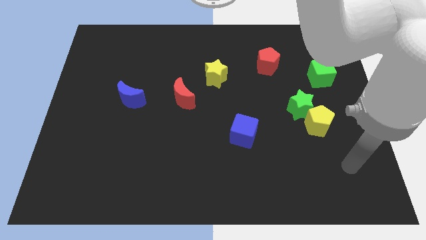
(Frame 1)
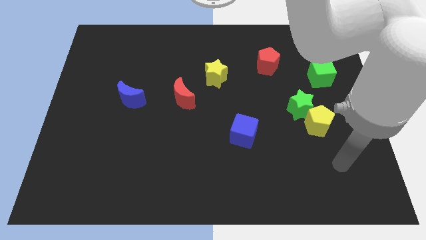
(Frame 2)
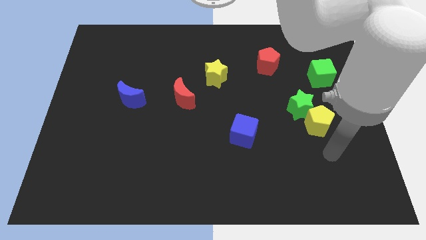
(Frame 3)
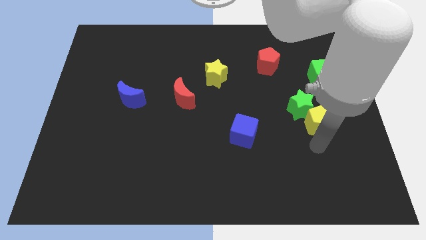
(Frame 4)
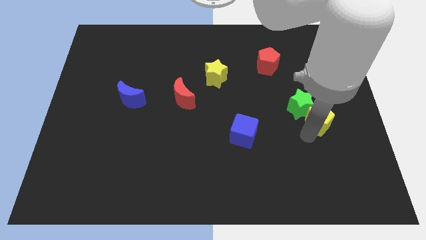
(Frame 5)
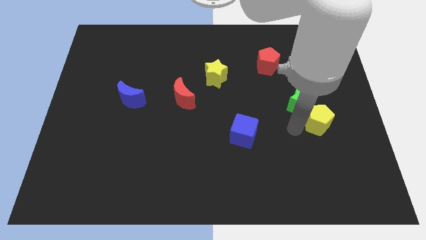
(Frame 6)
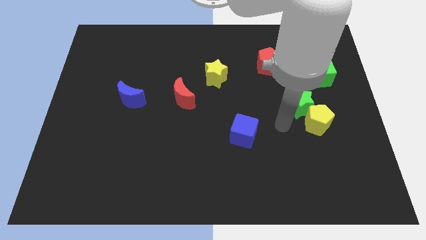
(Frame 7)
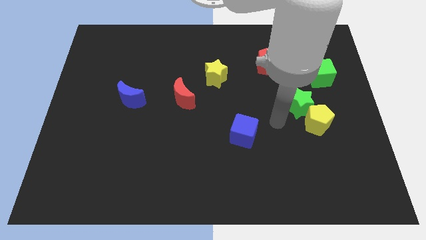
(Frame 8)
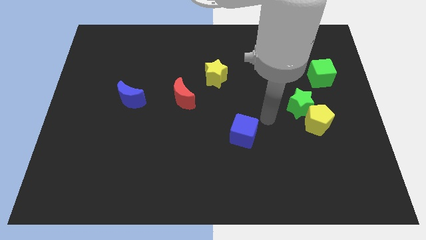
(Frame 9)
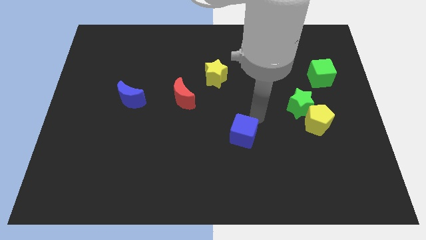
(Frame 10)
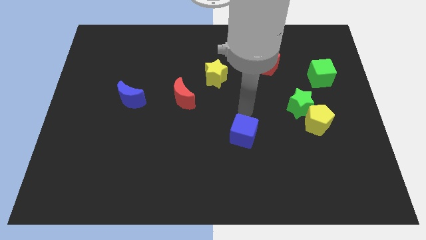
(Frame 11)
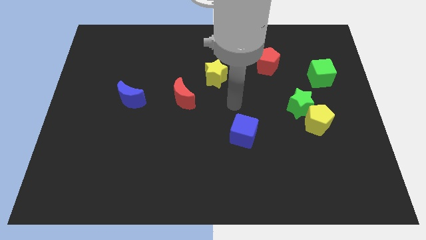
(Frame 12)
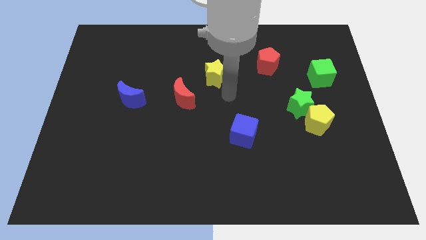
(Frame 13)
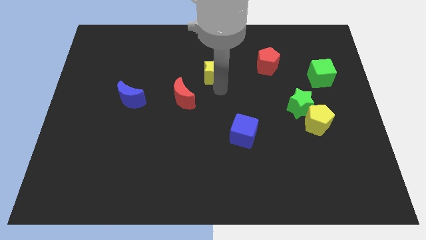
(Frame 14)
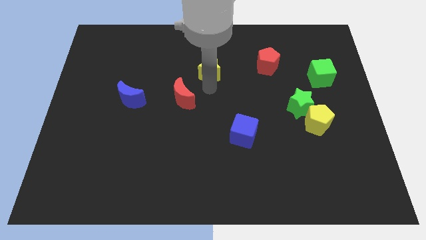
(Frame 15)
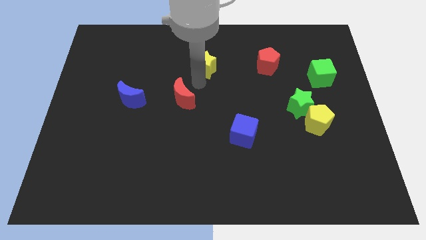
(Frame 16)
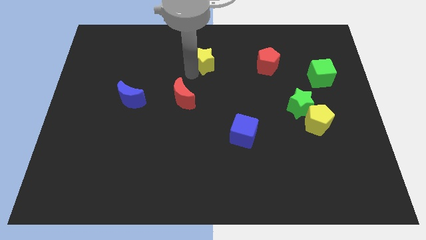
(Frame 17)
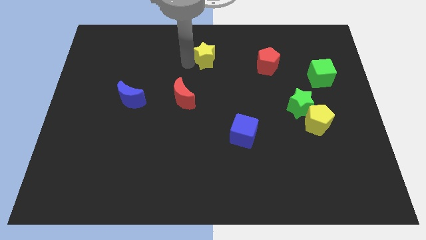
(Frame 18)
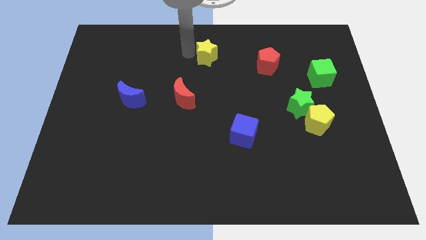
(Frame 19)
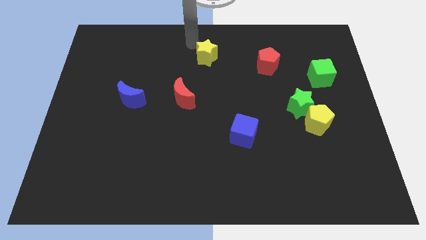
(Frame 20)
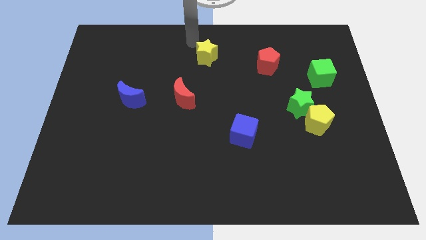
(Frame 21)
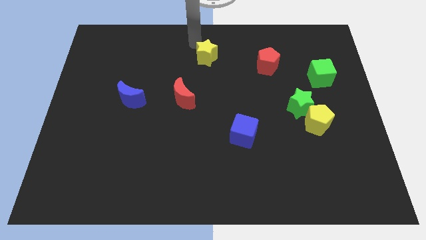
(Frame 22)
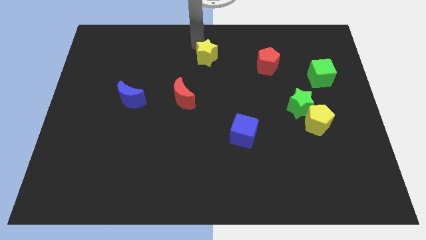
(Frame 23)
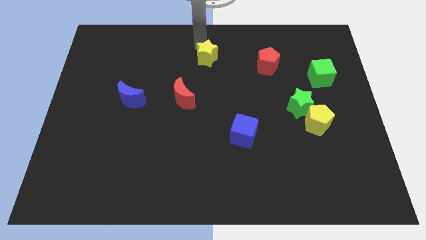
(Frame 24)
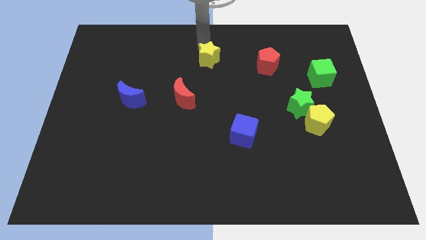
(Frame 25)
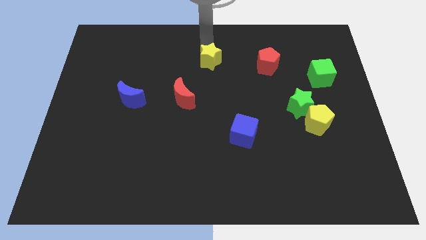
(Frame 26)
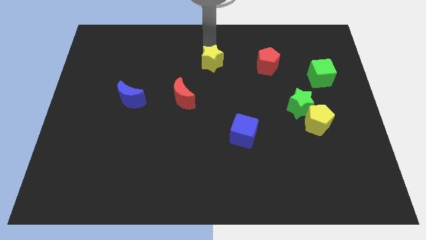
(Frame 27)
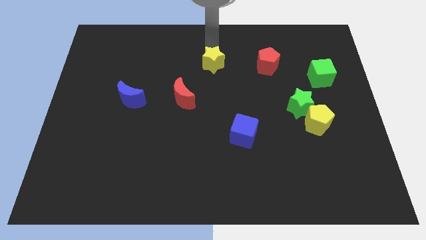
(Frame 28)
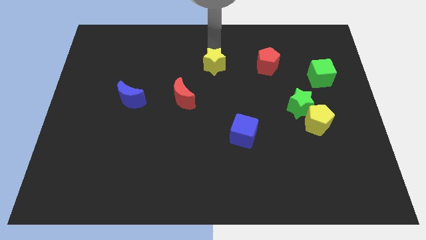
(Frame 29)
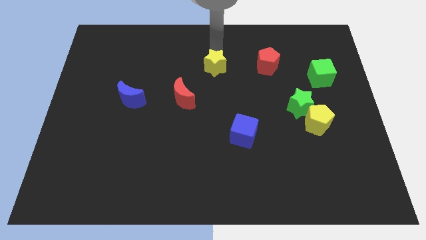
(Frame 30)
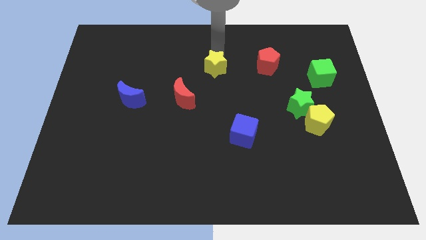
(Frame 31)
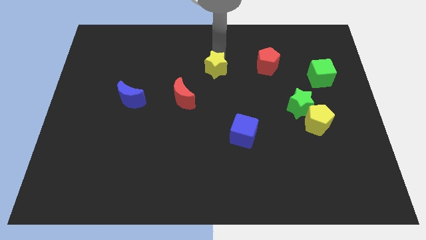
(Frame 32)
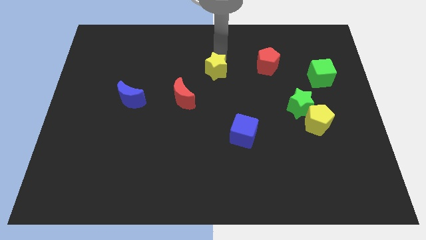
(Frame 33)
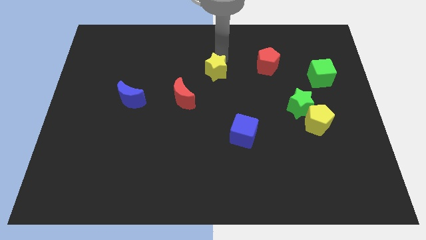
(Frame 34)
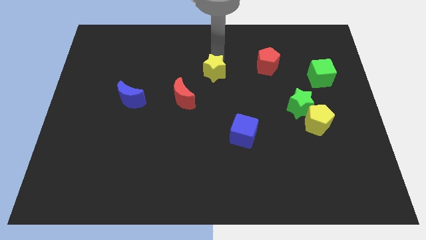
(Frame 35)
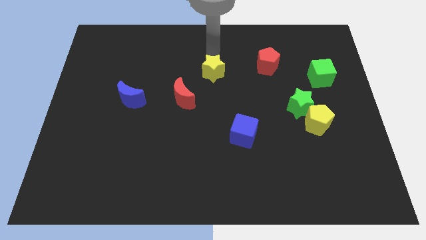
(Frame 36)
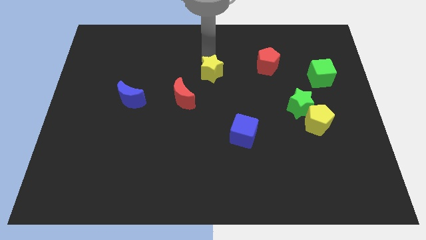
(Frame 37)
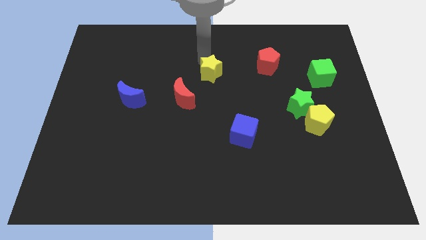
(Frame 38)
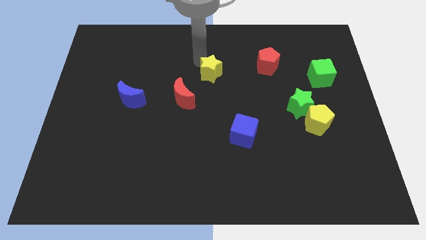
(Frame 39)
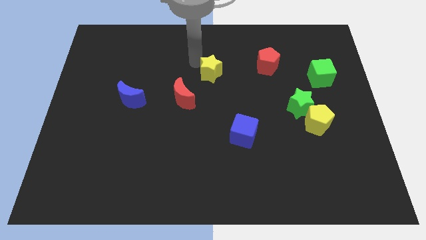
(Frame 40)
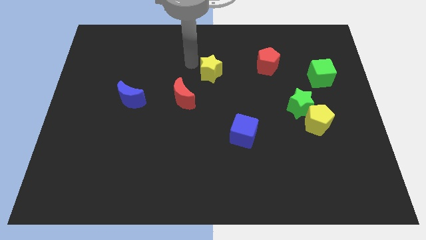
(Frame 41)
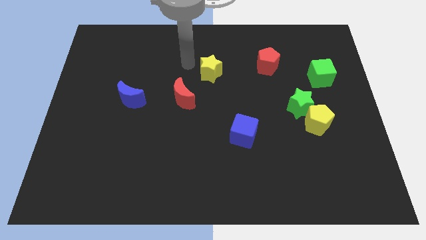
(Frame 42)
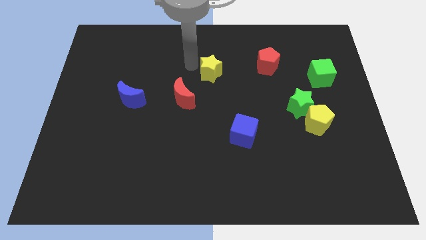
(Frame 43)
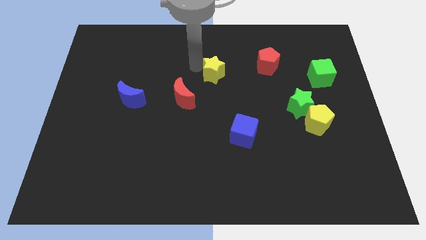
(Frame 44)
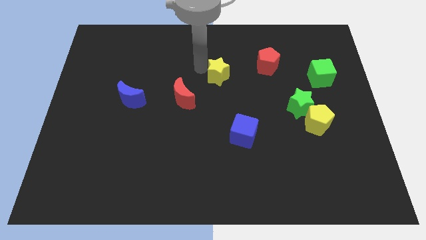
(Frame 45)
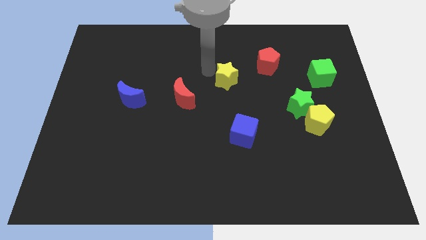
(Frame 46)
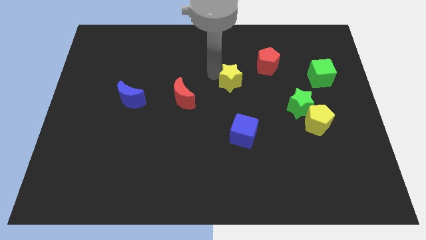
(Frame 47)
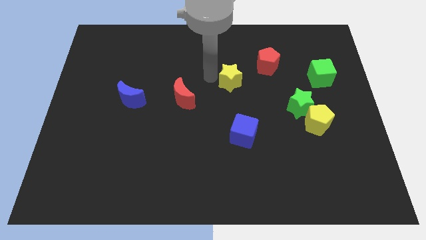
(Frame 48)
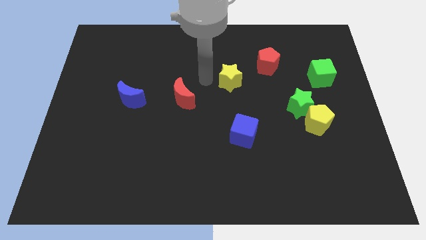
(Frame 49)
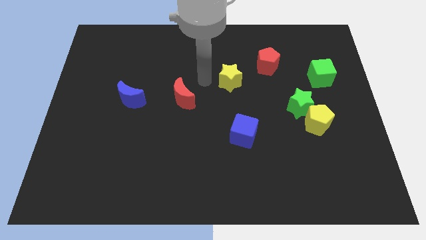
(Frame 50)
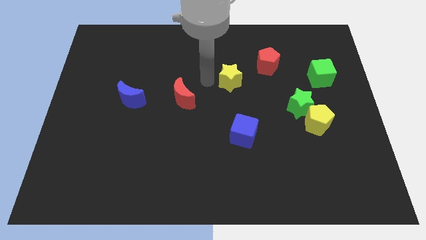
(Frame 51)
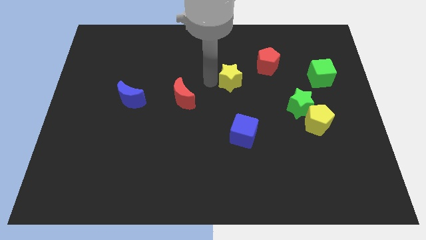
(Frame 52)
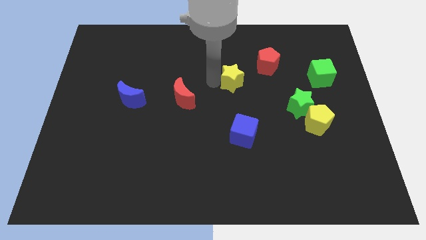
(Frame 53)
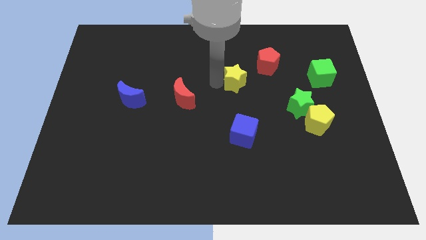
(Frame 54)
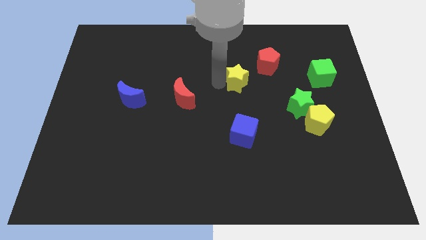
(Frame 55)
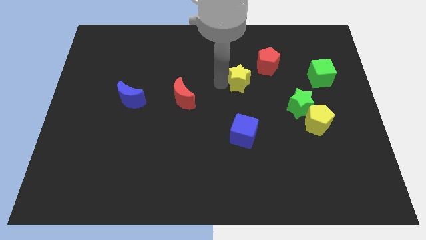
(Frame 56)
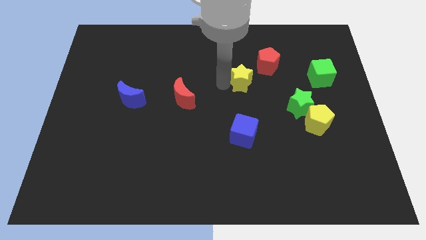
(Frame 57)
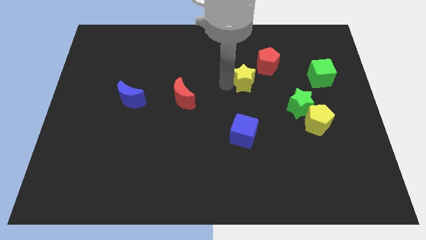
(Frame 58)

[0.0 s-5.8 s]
move the yellow star somewhat right

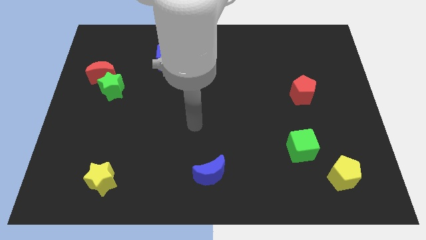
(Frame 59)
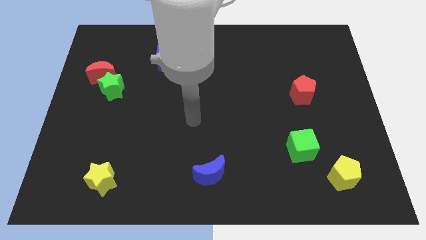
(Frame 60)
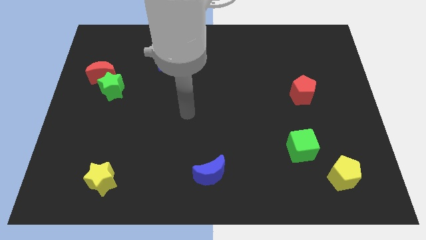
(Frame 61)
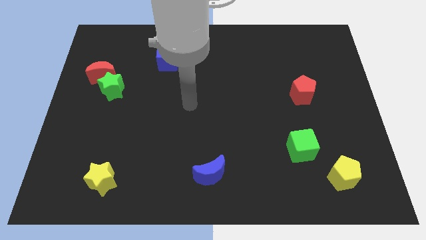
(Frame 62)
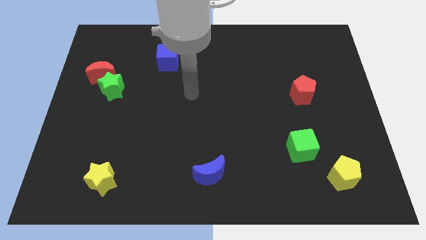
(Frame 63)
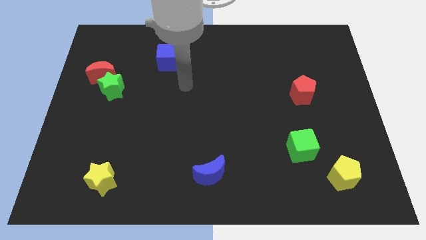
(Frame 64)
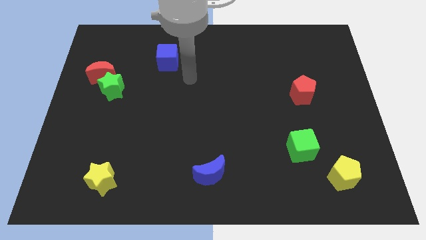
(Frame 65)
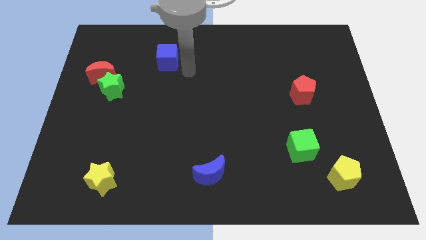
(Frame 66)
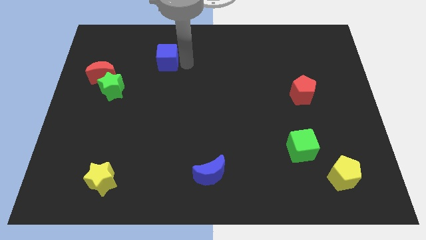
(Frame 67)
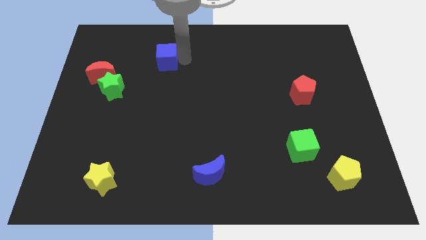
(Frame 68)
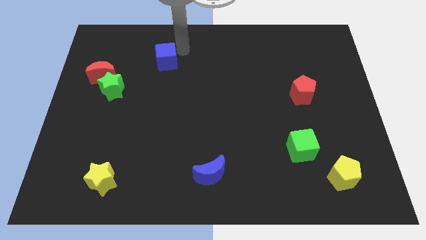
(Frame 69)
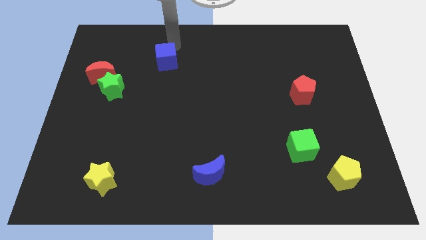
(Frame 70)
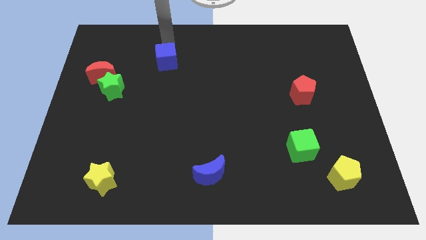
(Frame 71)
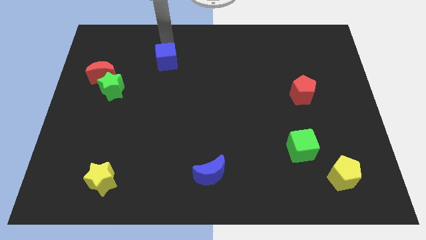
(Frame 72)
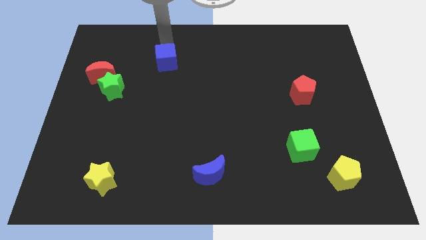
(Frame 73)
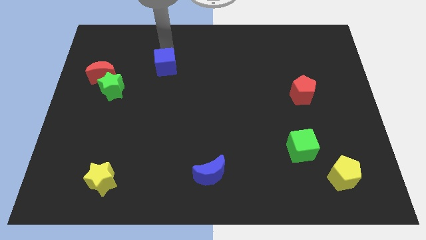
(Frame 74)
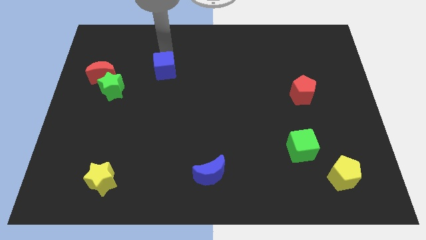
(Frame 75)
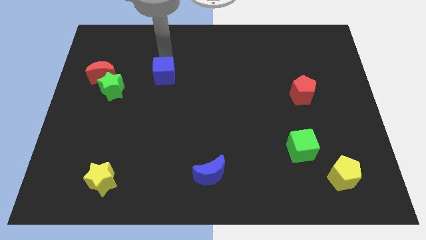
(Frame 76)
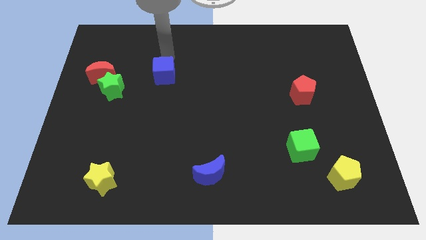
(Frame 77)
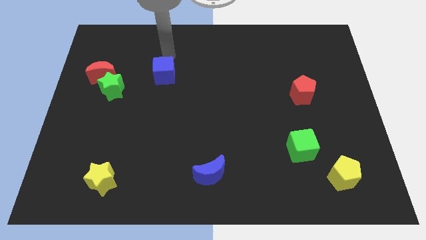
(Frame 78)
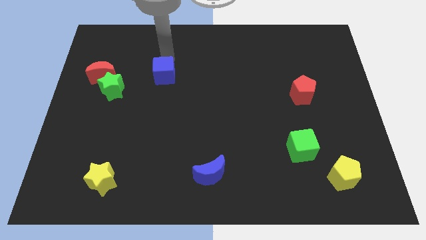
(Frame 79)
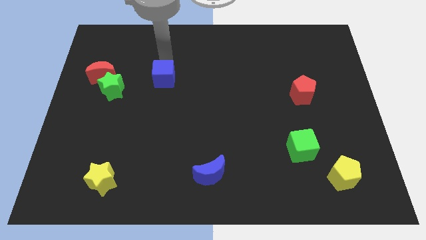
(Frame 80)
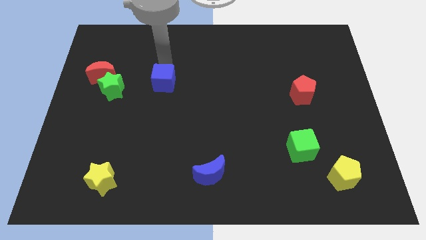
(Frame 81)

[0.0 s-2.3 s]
slide the blue cube down a bit

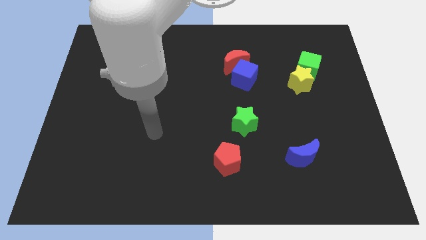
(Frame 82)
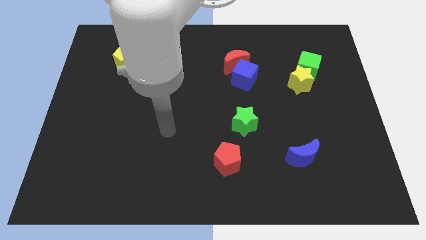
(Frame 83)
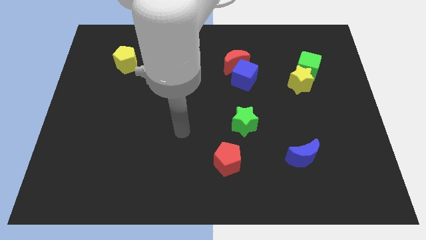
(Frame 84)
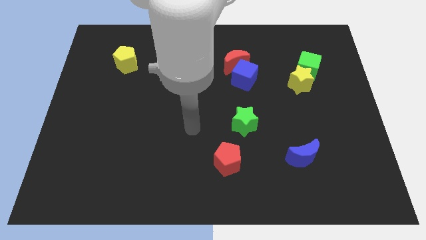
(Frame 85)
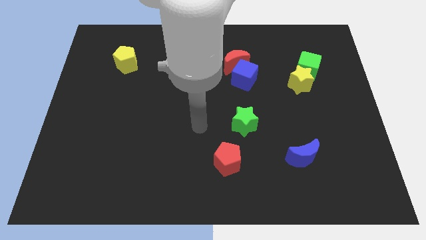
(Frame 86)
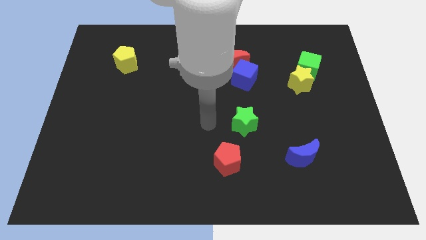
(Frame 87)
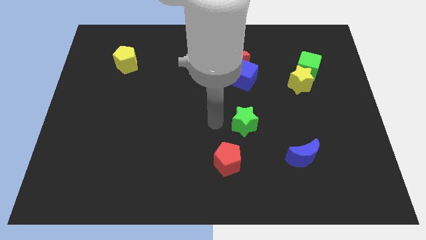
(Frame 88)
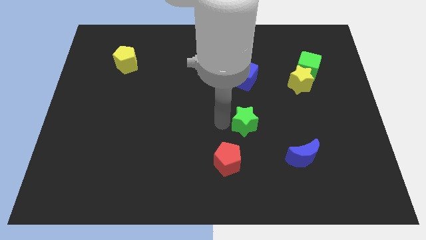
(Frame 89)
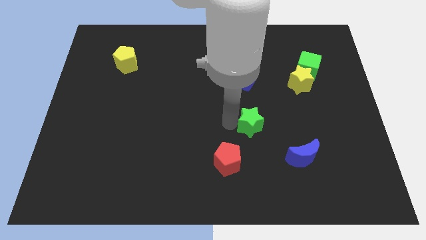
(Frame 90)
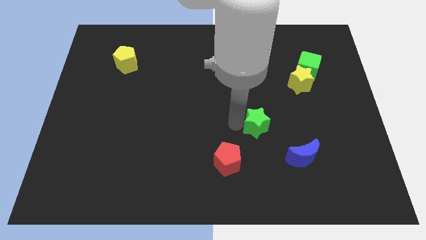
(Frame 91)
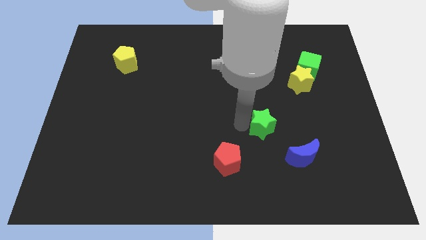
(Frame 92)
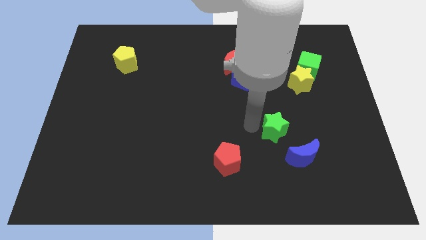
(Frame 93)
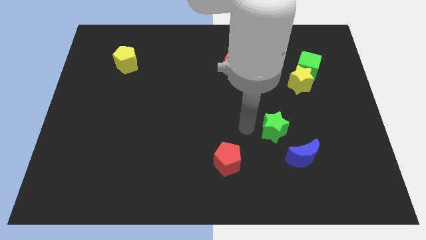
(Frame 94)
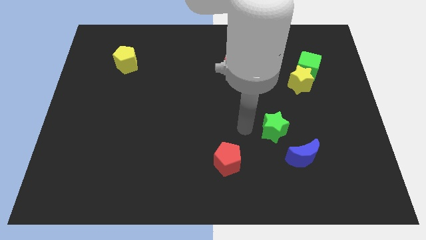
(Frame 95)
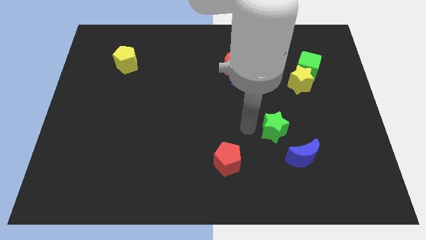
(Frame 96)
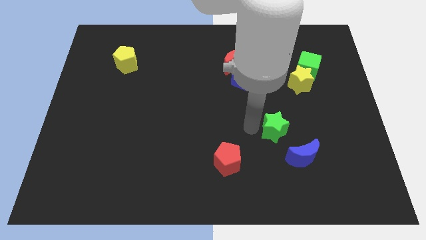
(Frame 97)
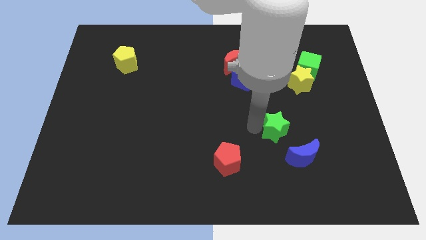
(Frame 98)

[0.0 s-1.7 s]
move the green star right slightly
